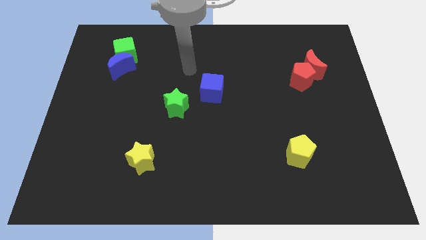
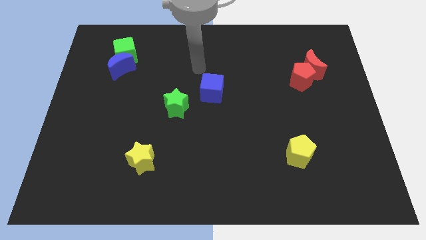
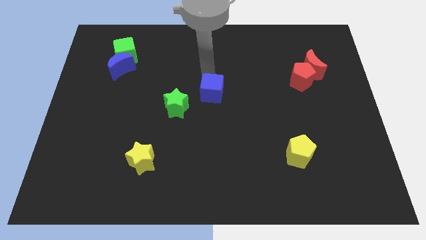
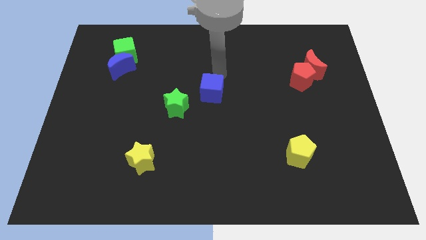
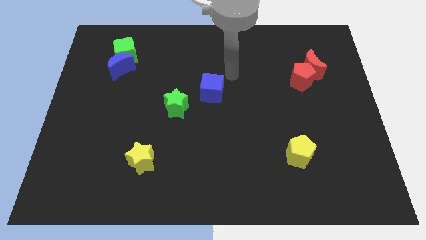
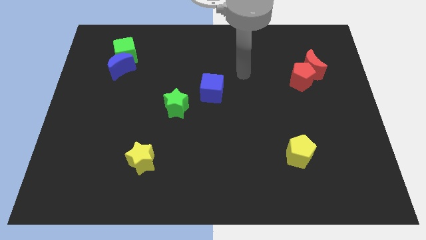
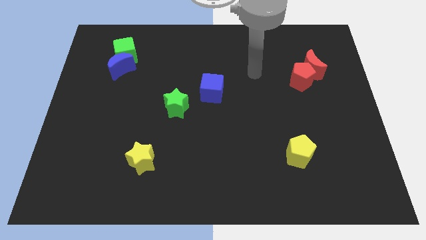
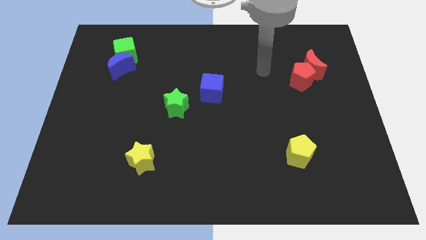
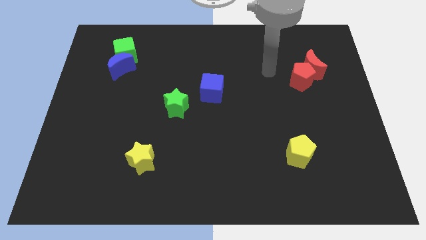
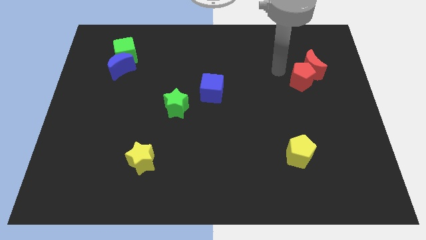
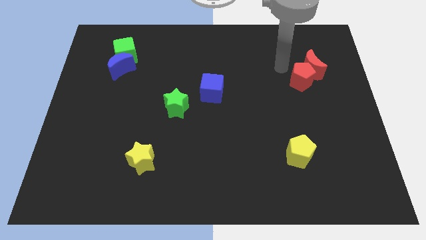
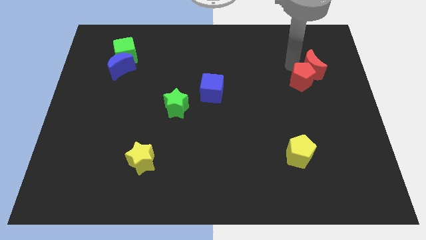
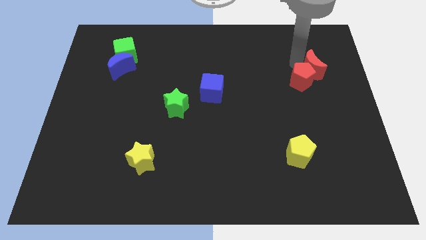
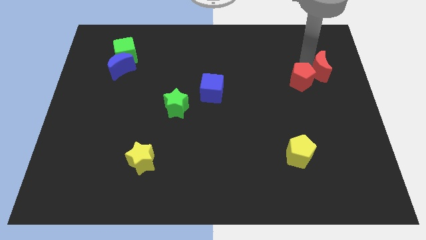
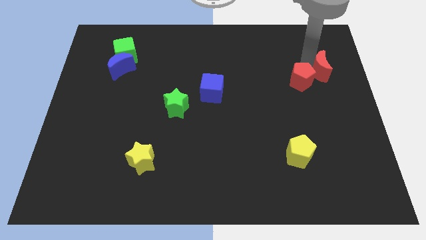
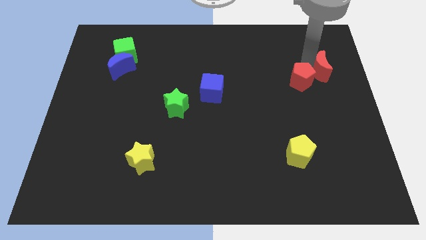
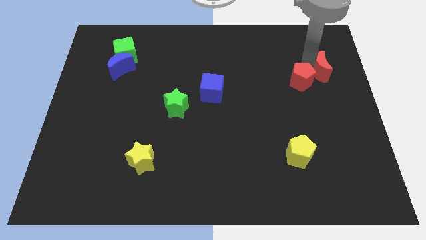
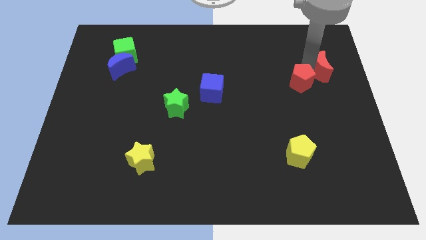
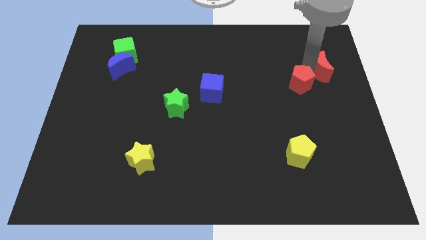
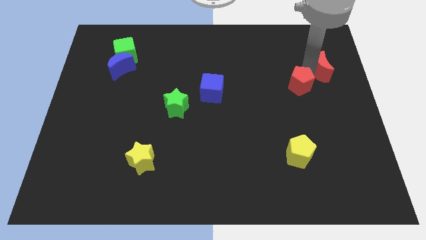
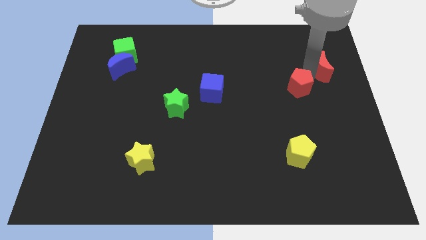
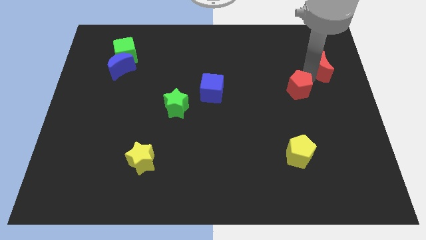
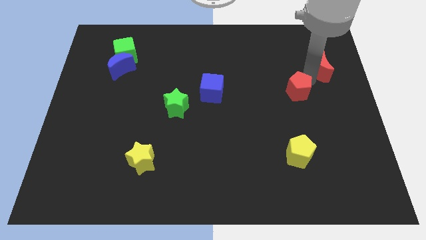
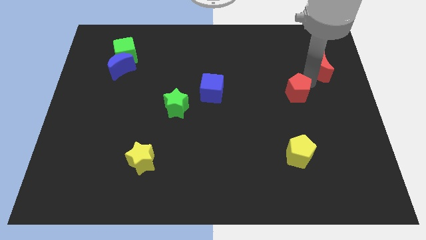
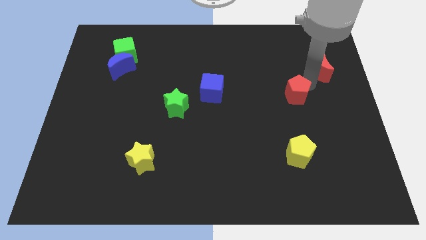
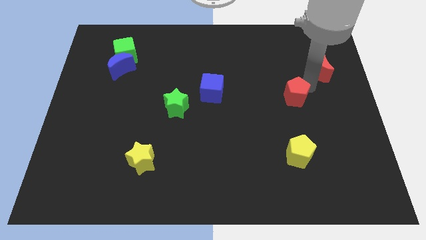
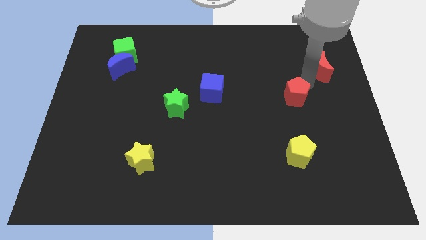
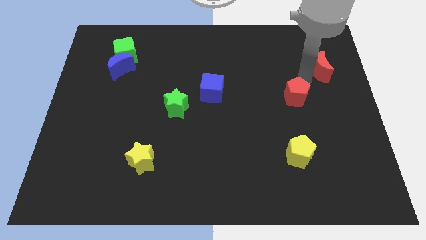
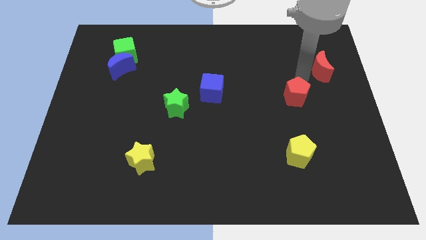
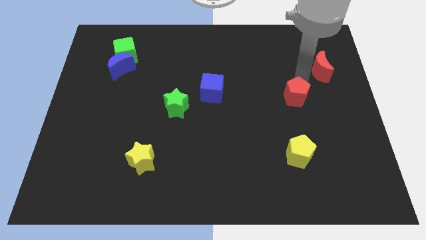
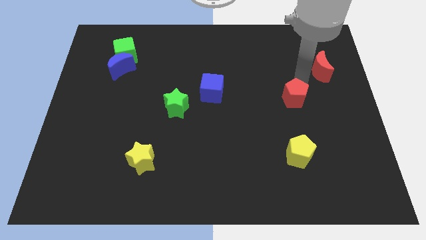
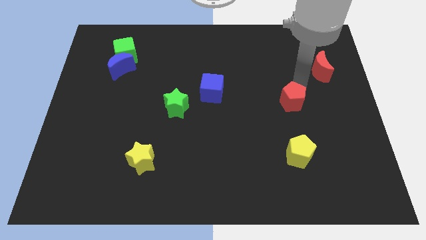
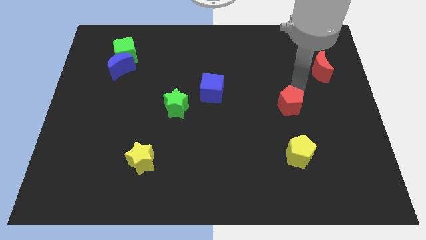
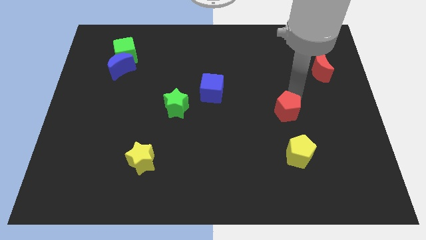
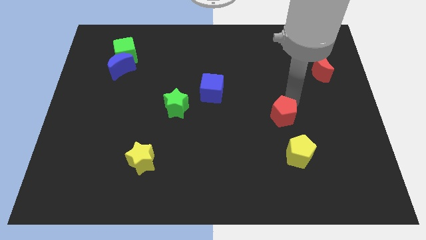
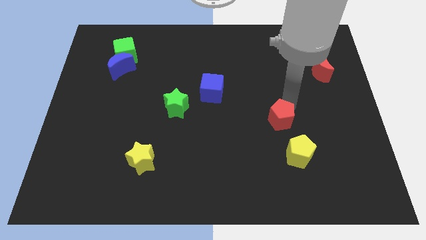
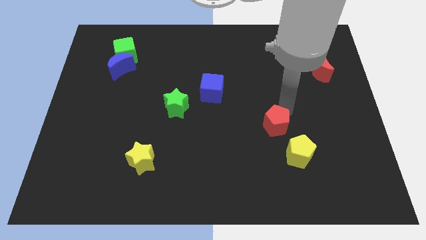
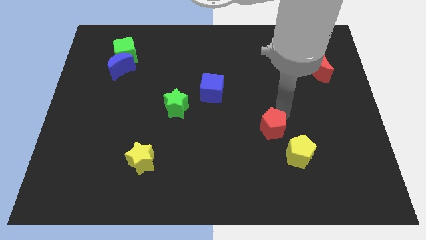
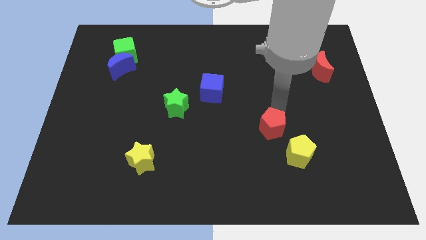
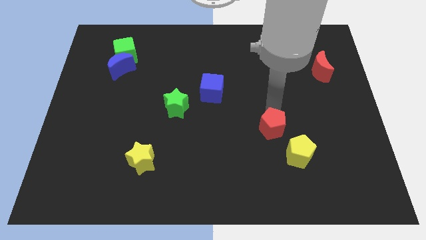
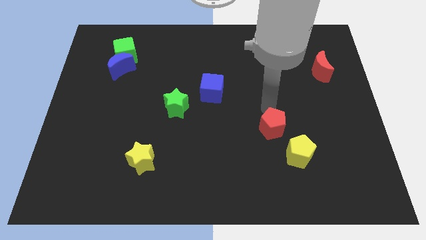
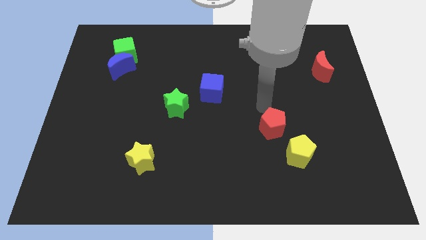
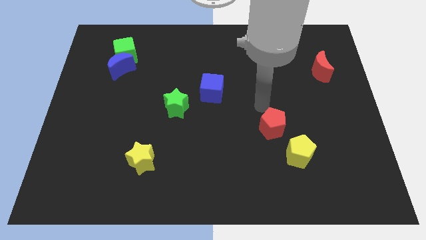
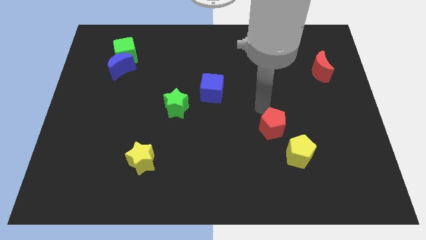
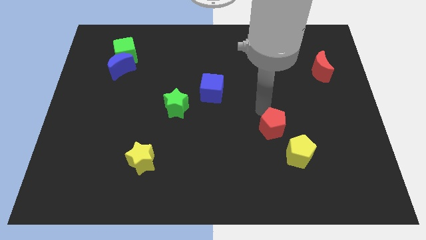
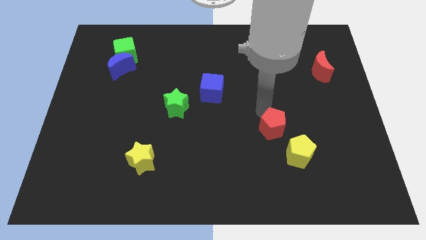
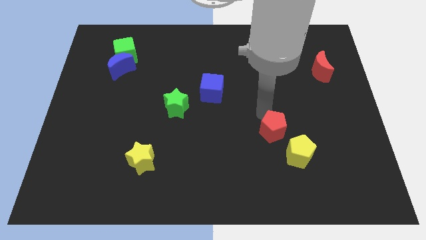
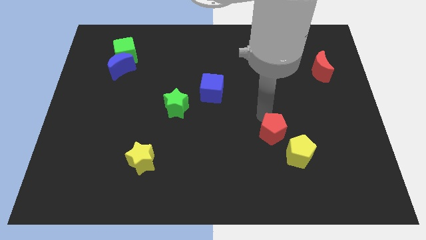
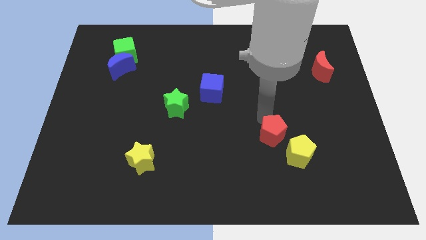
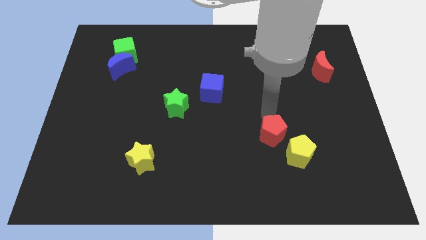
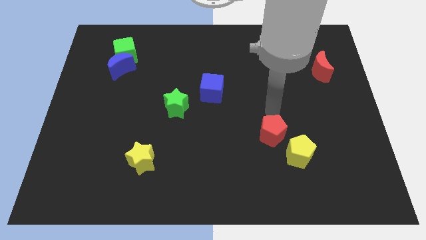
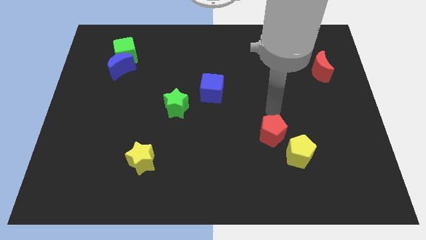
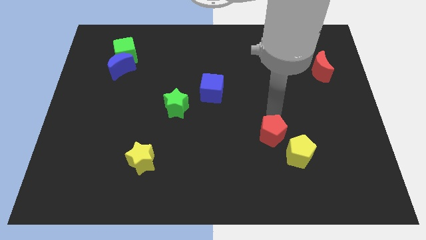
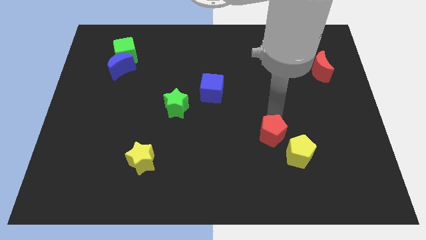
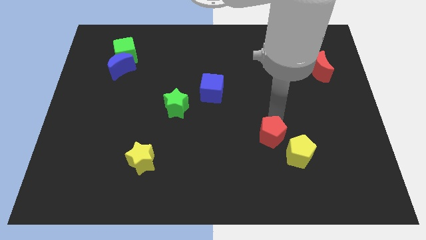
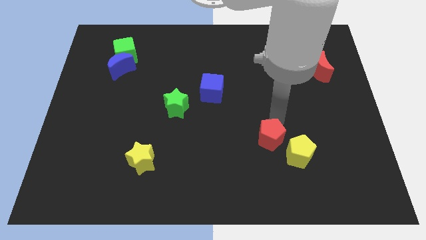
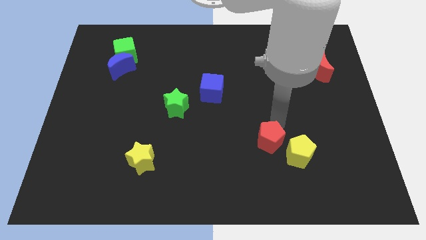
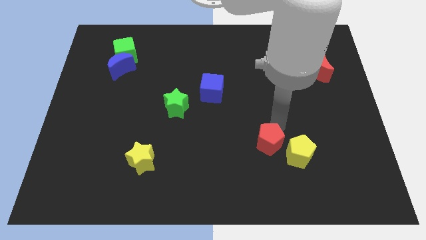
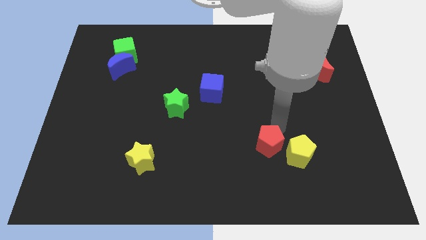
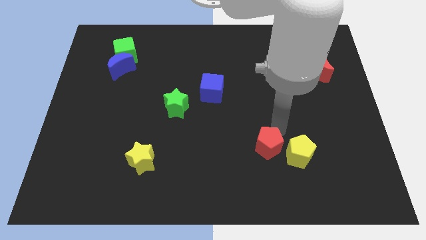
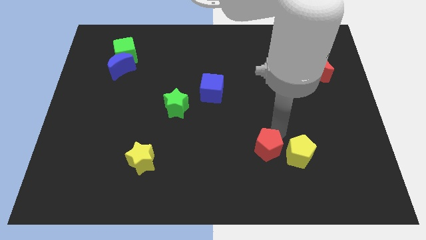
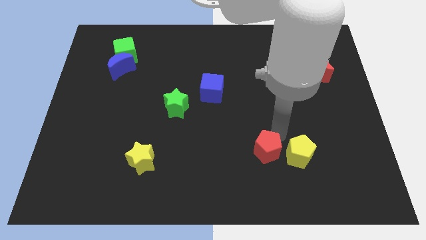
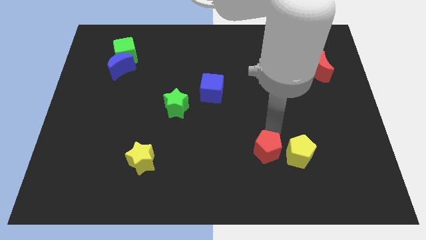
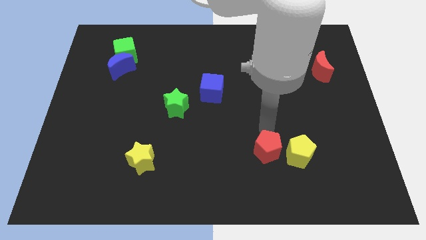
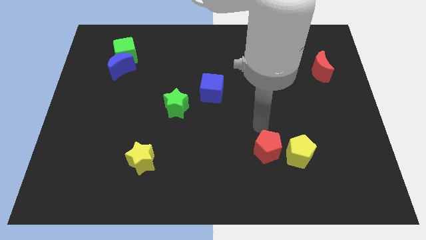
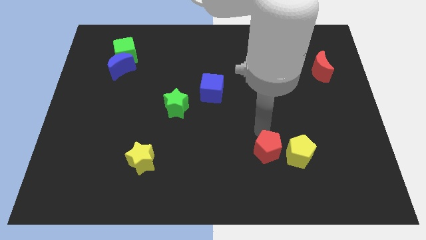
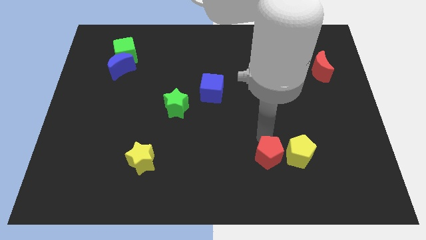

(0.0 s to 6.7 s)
put the red pentagon diagonally down and to the left of the yellow pentagon
